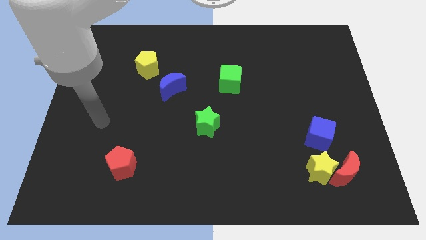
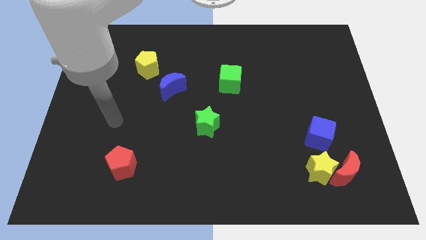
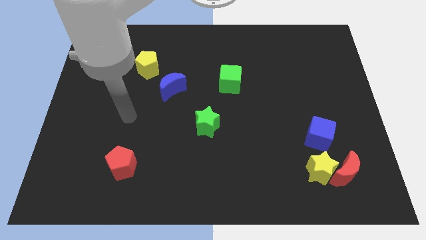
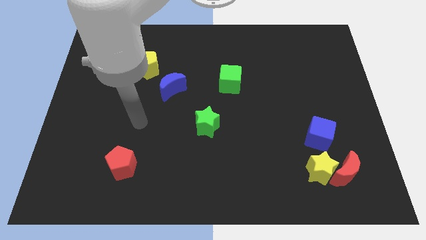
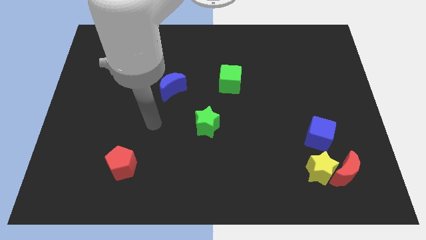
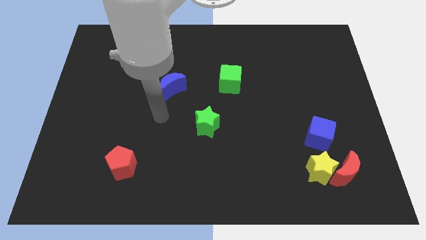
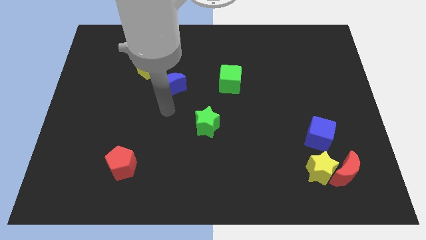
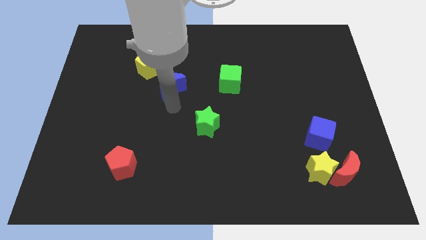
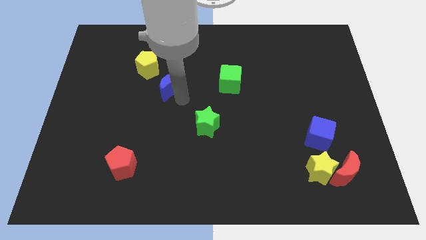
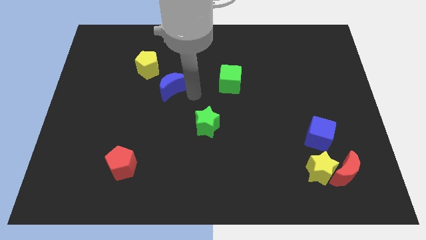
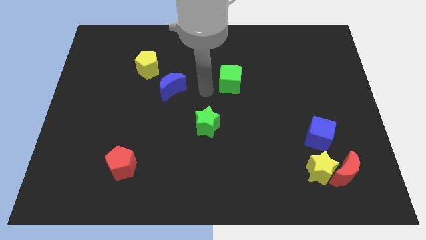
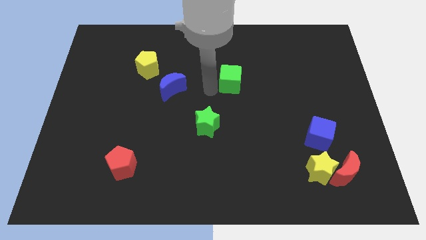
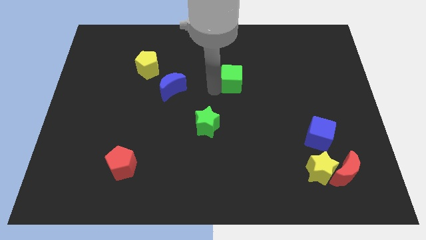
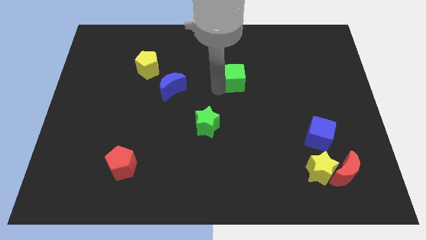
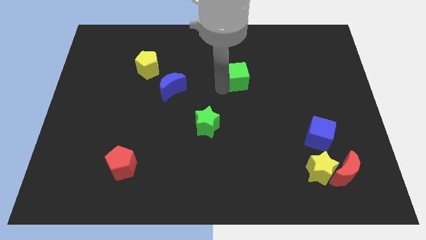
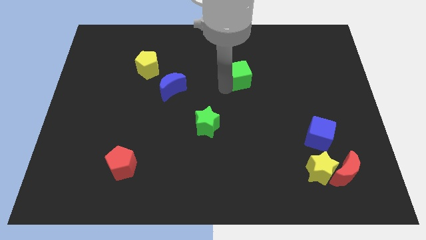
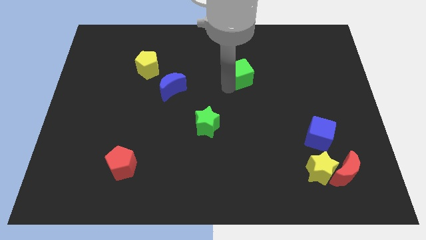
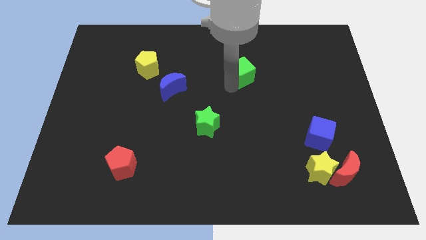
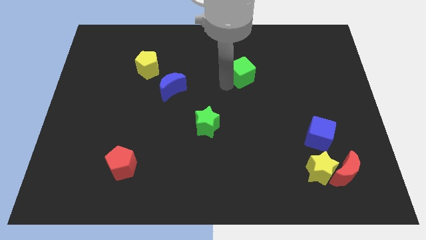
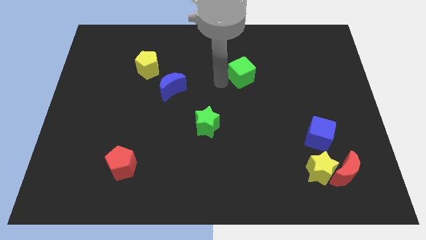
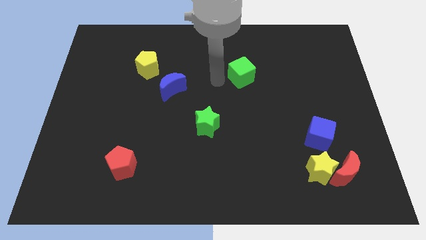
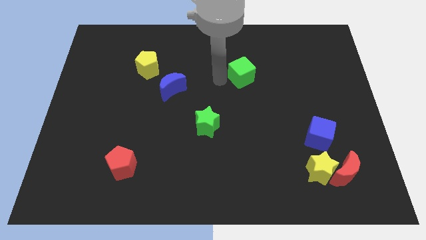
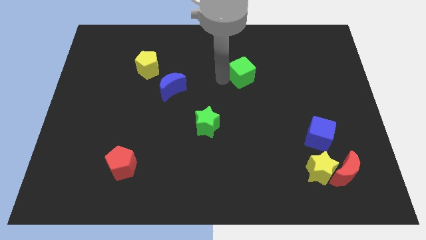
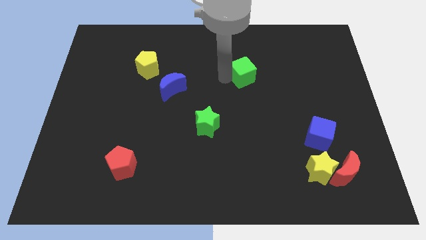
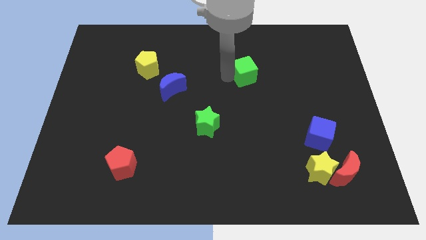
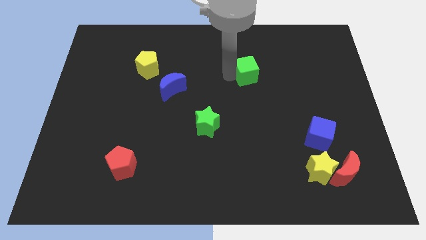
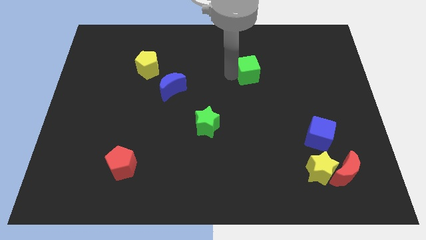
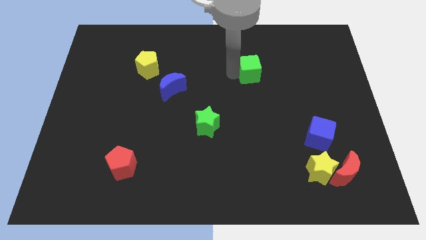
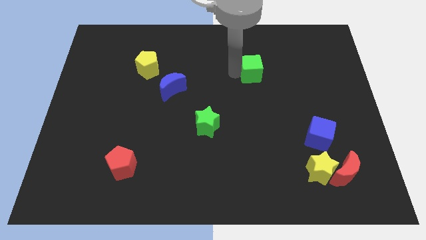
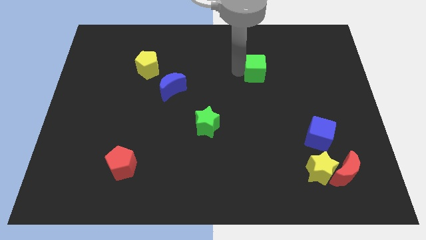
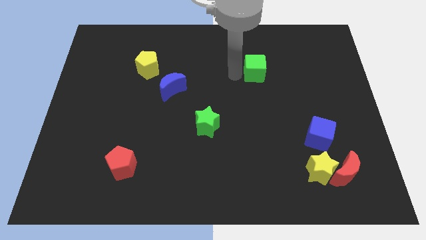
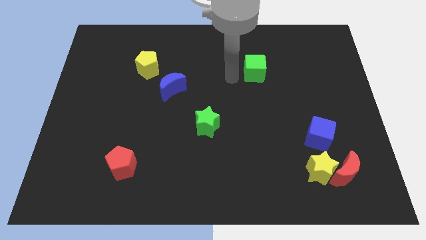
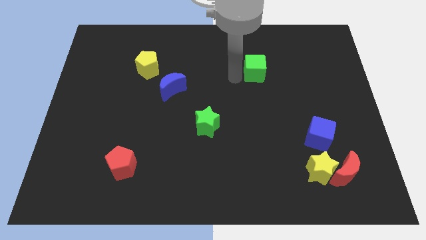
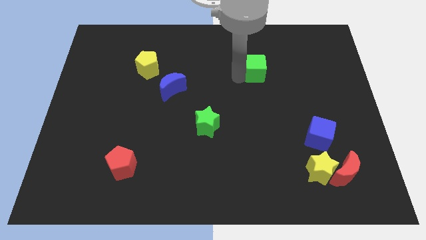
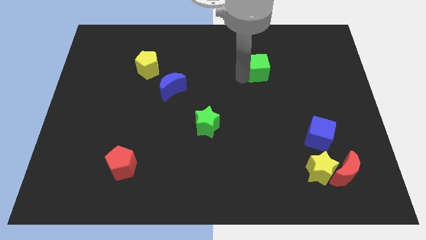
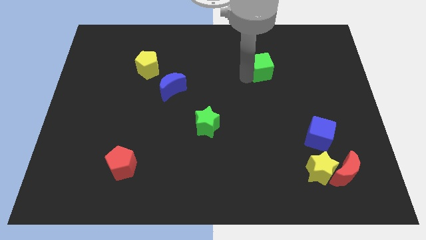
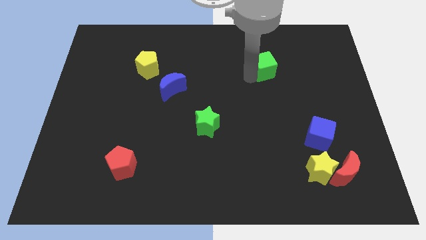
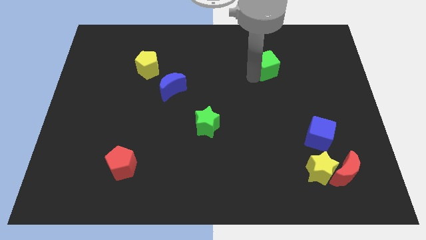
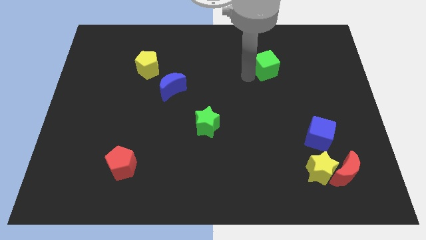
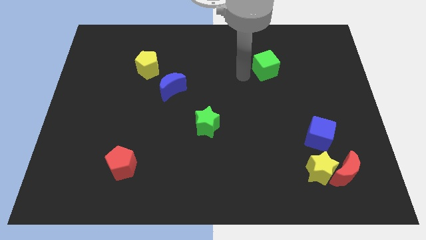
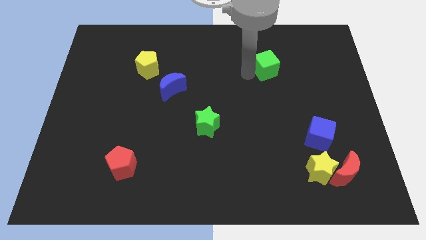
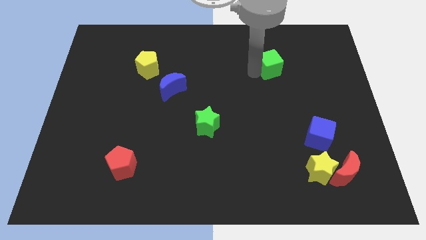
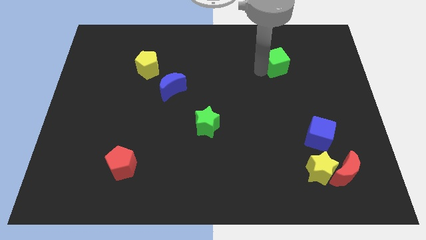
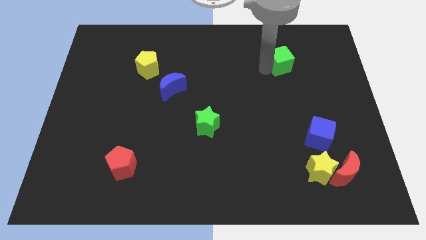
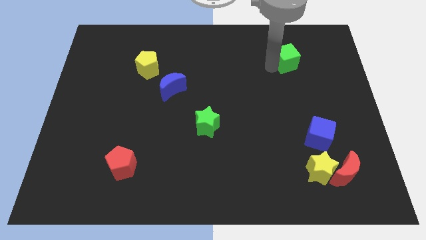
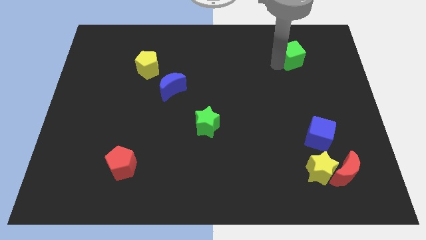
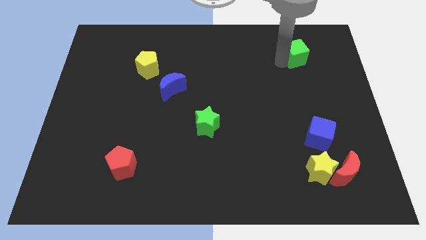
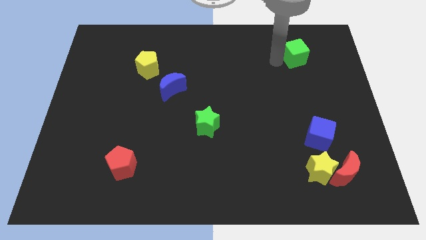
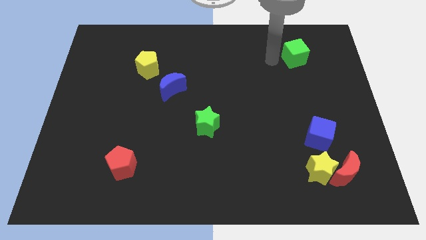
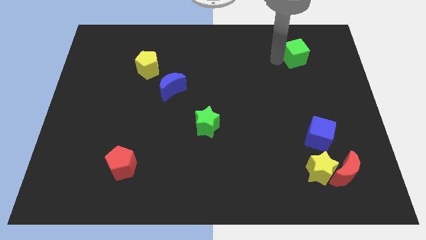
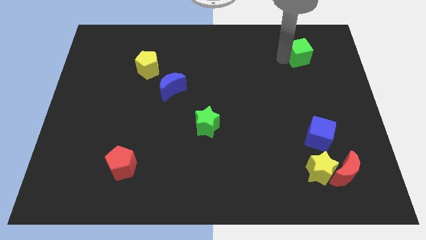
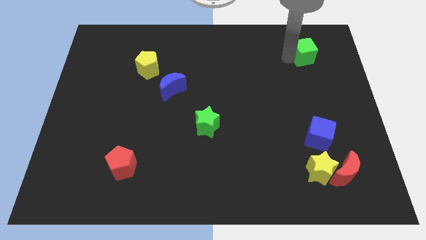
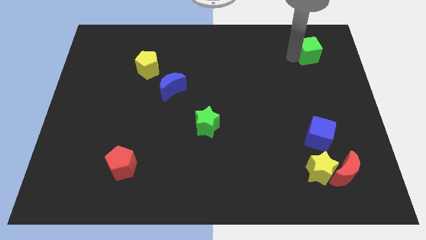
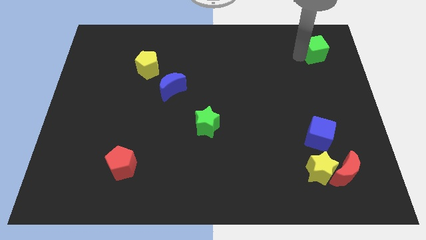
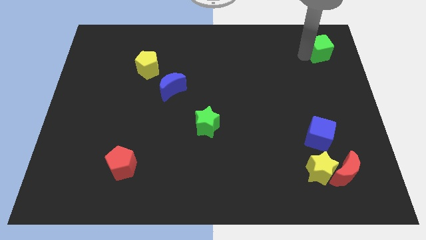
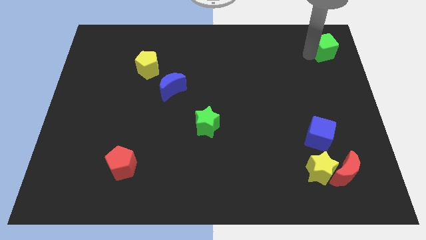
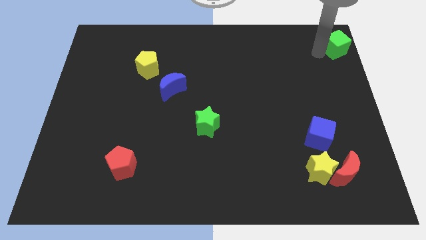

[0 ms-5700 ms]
slide the green cube to the upper right corner

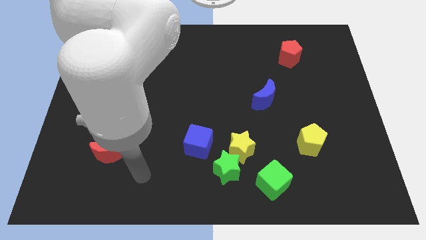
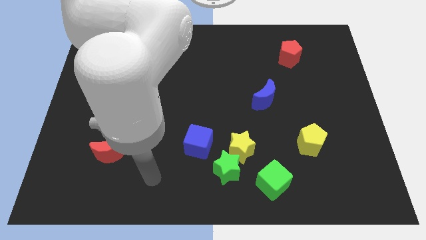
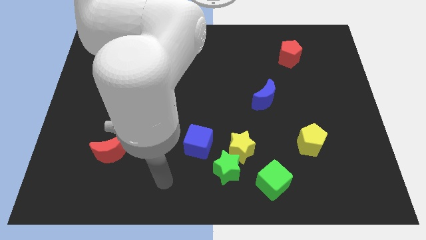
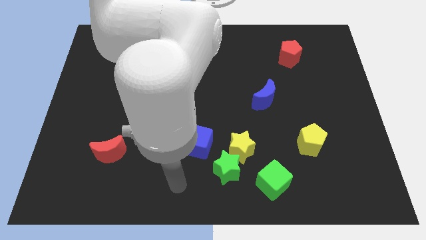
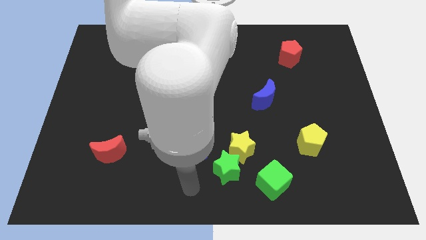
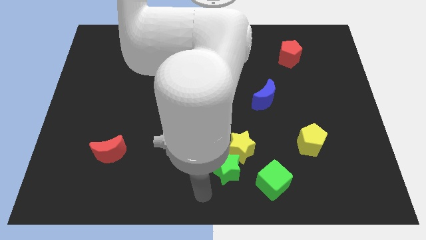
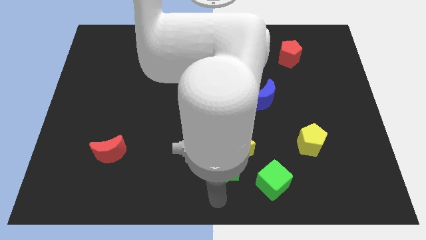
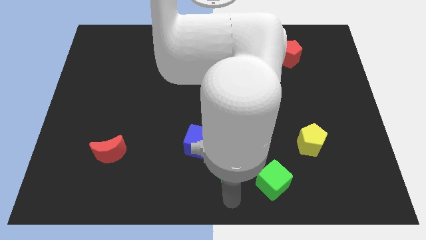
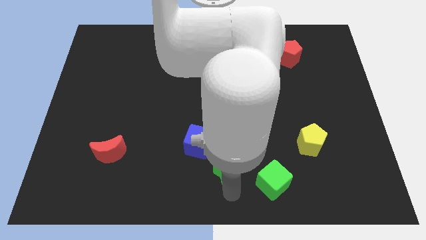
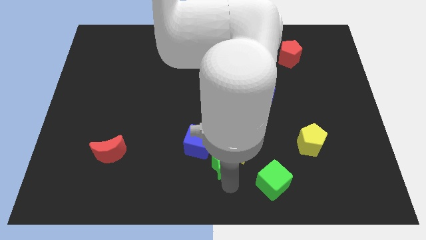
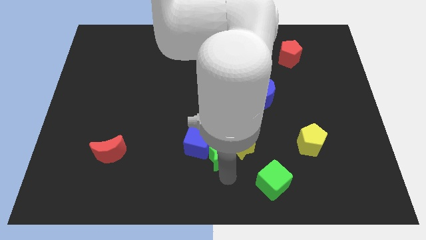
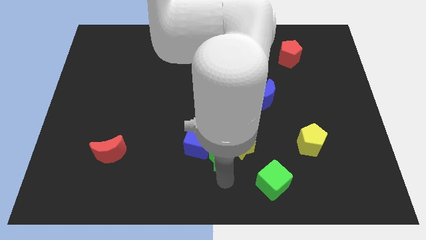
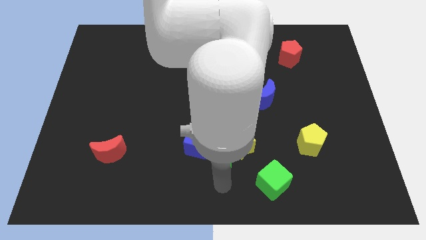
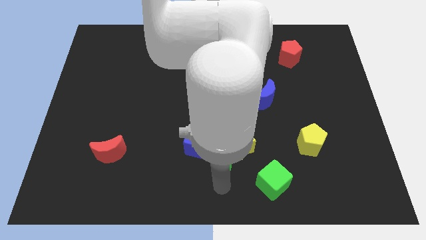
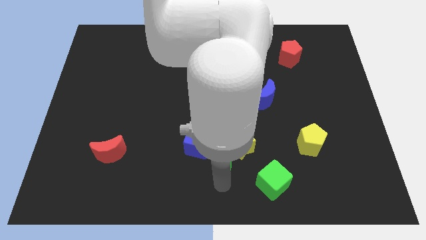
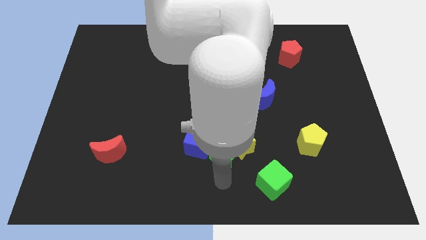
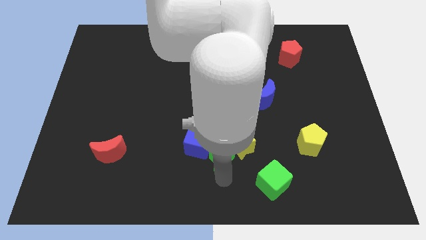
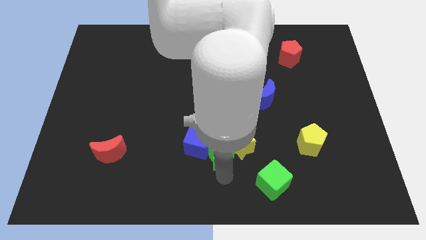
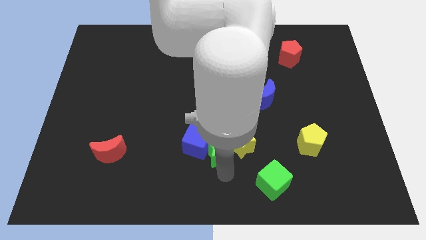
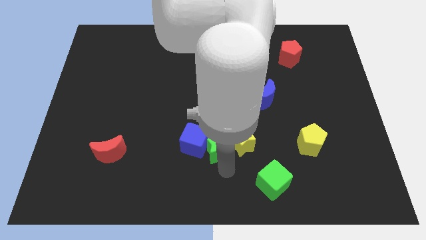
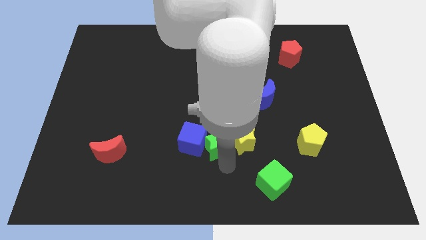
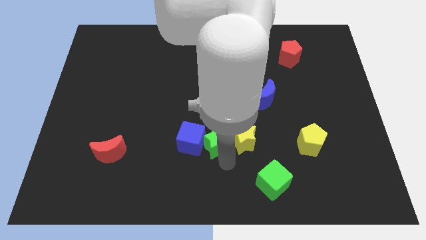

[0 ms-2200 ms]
put the green star to the middle
